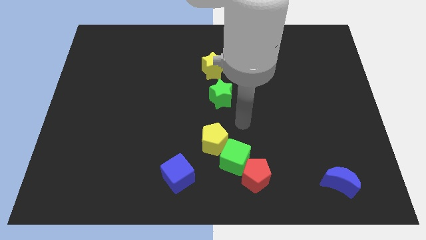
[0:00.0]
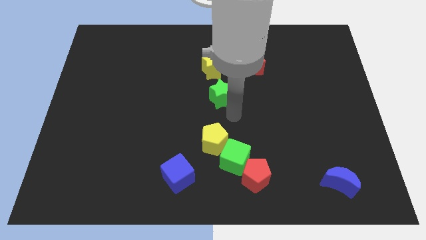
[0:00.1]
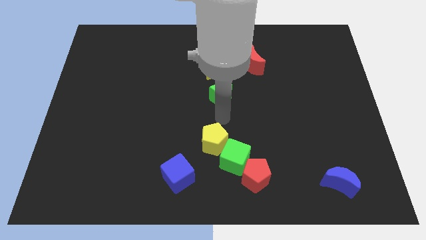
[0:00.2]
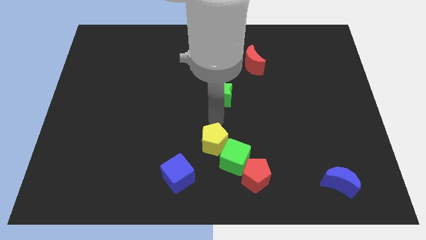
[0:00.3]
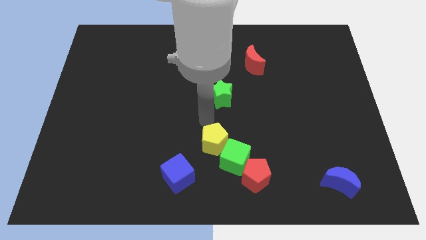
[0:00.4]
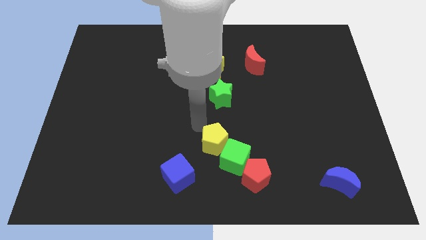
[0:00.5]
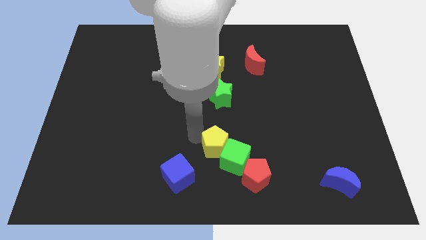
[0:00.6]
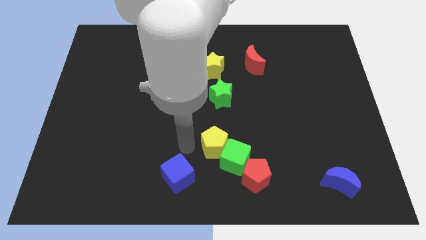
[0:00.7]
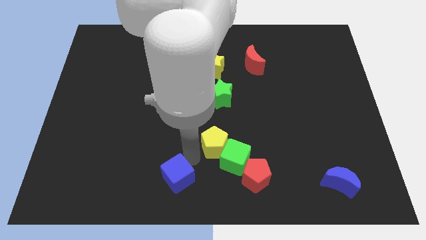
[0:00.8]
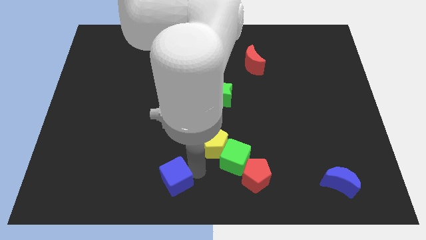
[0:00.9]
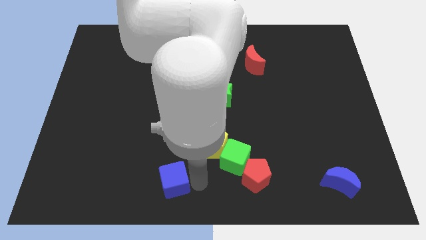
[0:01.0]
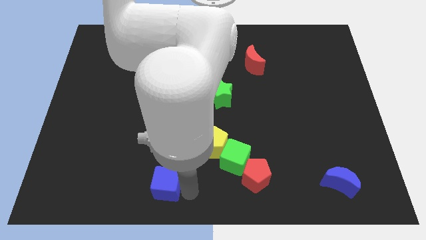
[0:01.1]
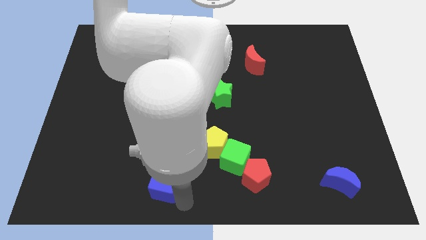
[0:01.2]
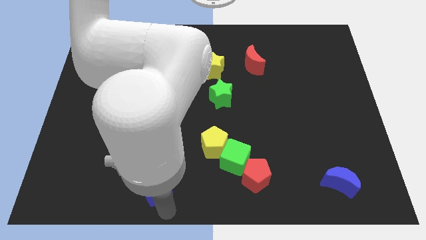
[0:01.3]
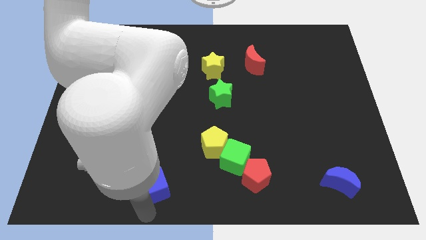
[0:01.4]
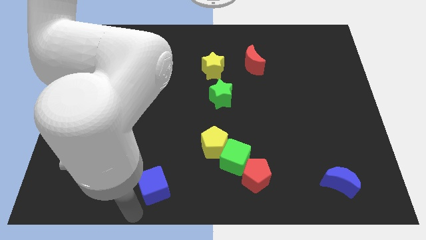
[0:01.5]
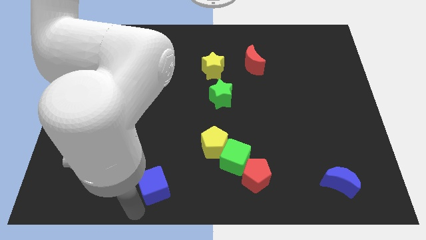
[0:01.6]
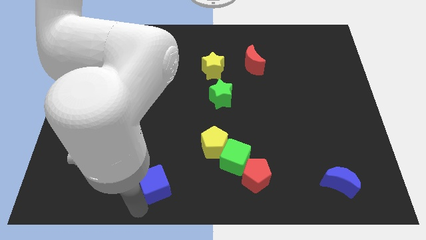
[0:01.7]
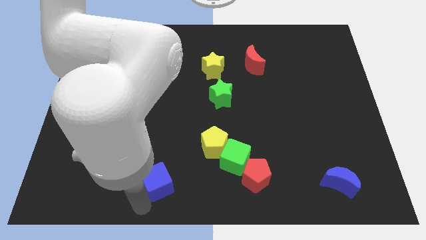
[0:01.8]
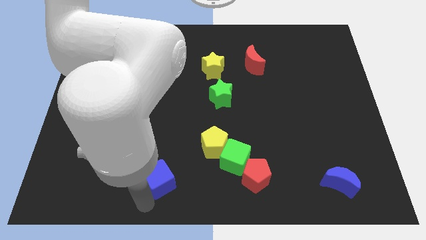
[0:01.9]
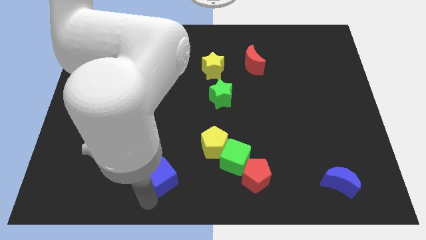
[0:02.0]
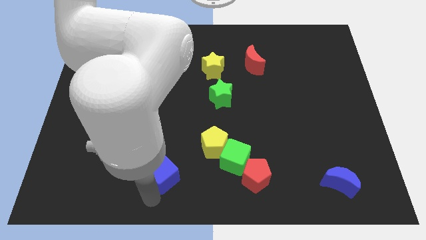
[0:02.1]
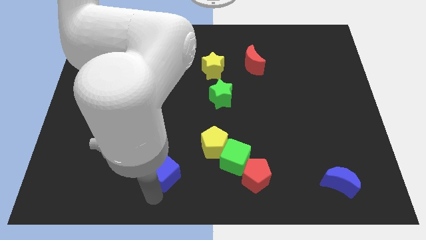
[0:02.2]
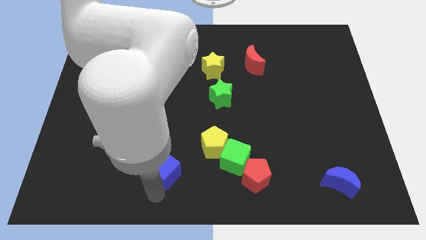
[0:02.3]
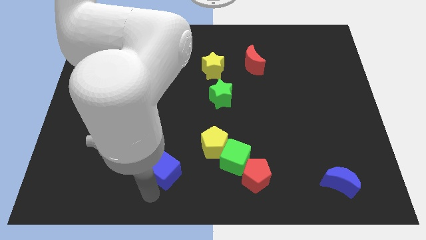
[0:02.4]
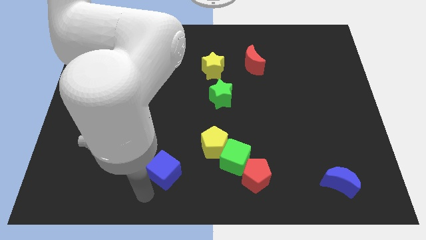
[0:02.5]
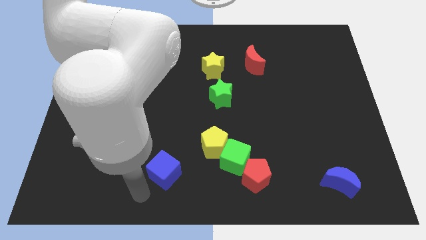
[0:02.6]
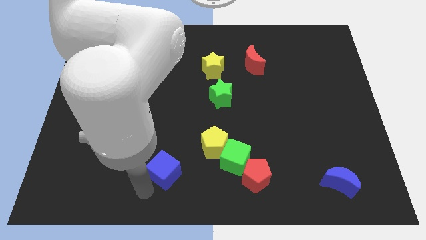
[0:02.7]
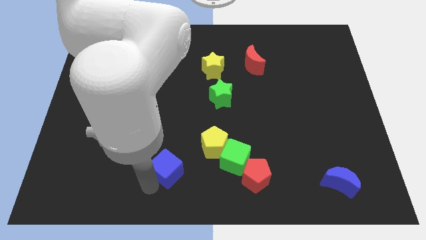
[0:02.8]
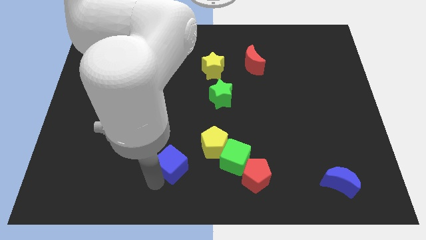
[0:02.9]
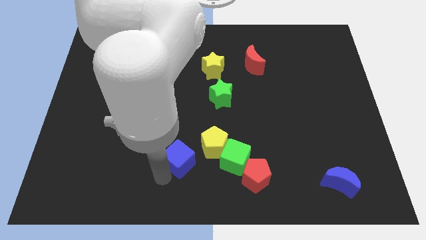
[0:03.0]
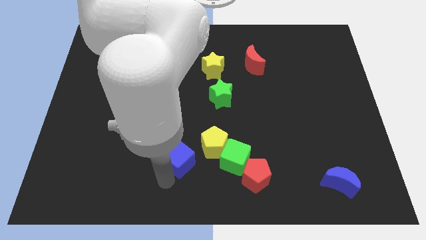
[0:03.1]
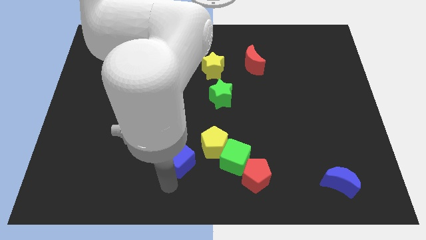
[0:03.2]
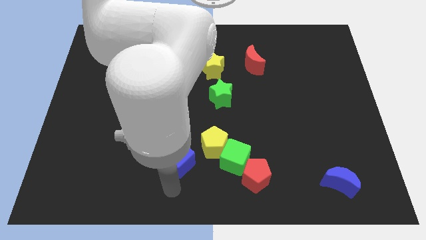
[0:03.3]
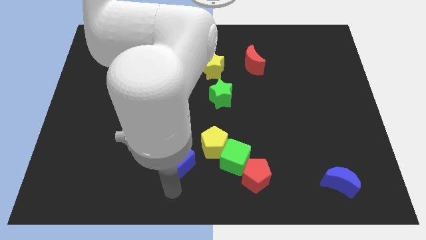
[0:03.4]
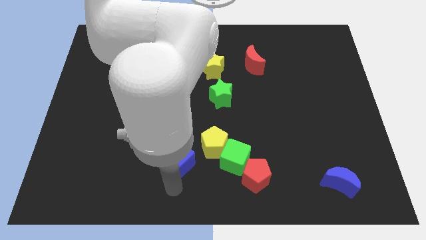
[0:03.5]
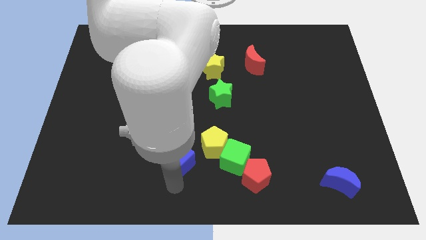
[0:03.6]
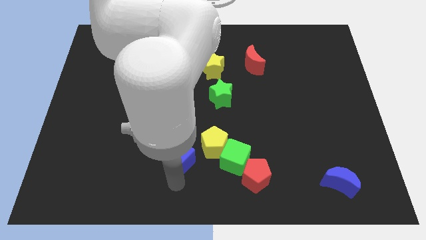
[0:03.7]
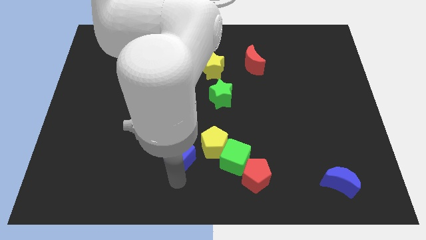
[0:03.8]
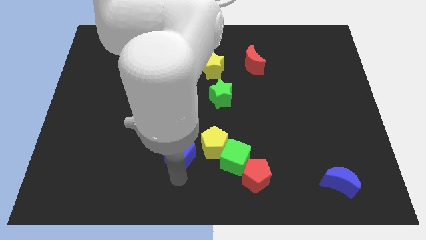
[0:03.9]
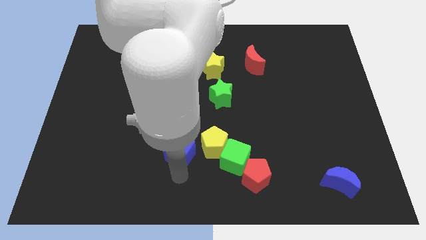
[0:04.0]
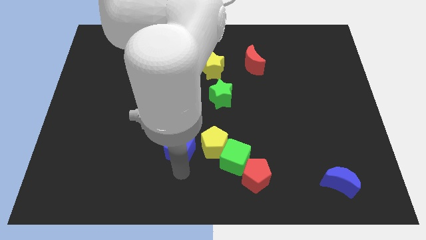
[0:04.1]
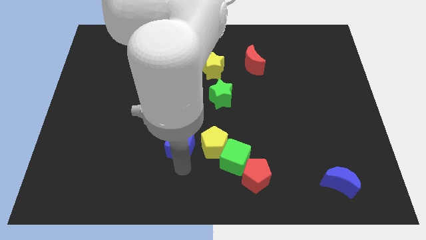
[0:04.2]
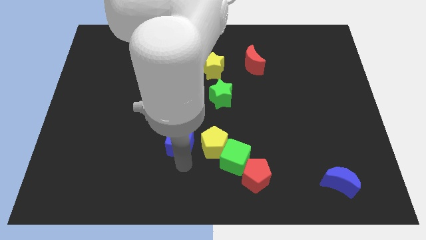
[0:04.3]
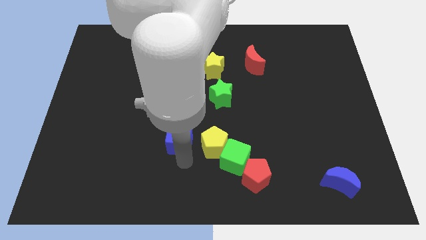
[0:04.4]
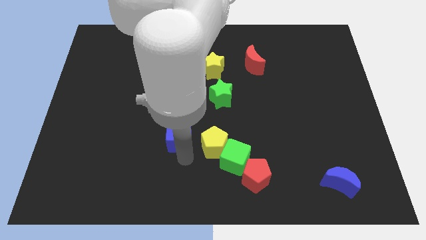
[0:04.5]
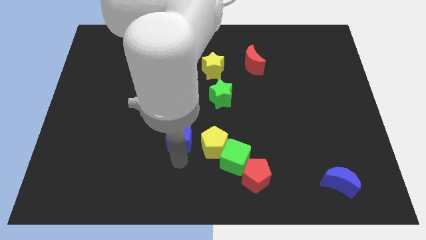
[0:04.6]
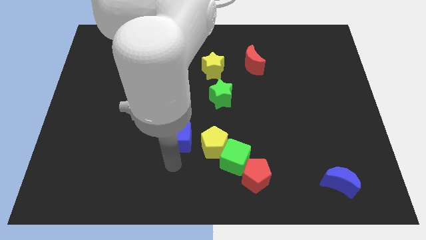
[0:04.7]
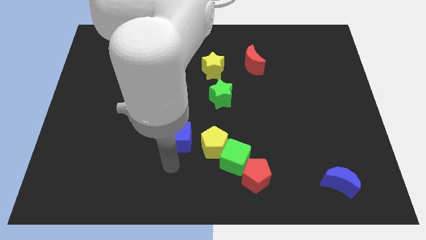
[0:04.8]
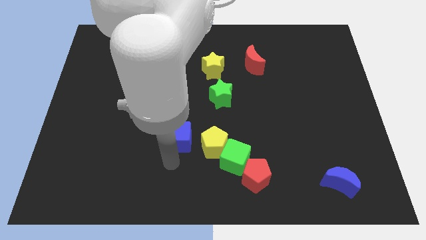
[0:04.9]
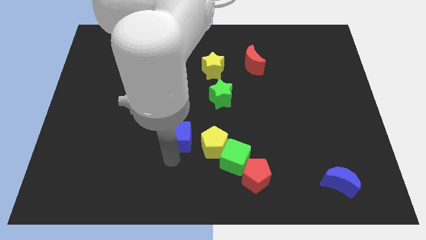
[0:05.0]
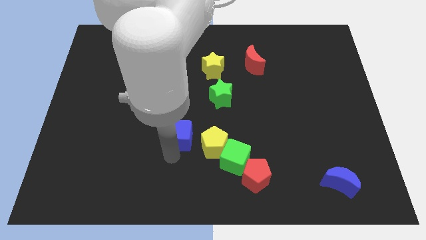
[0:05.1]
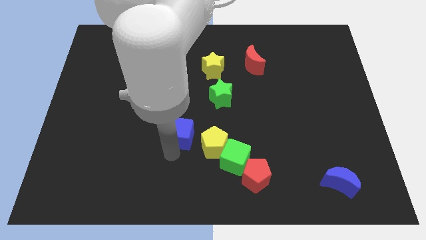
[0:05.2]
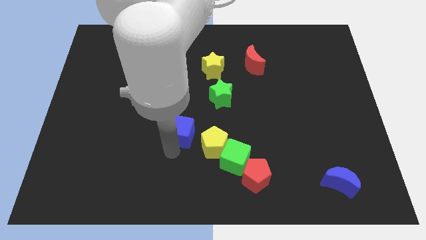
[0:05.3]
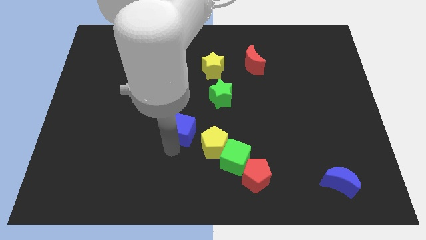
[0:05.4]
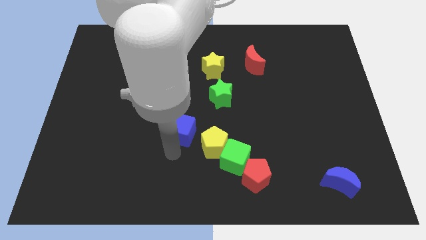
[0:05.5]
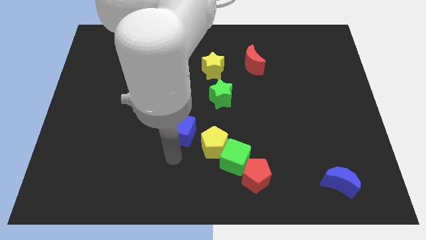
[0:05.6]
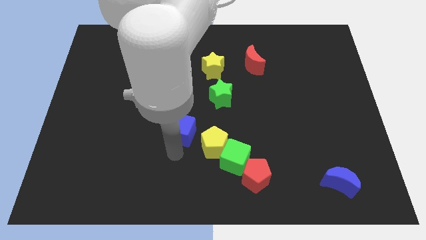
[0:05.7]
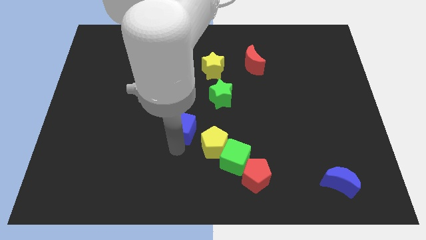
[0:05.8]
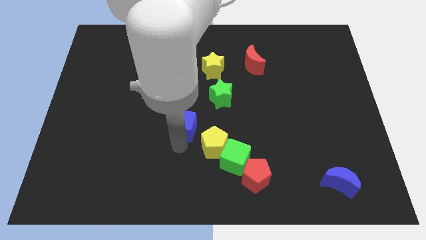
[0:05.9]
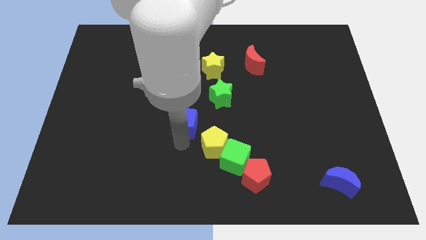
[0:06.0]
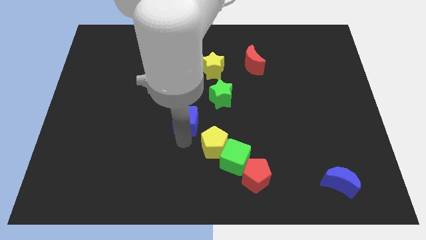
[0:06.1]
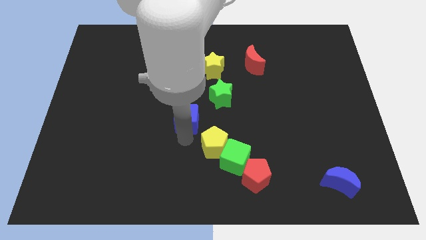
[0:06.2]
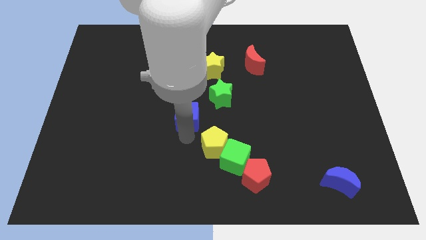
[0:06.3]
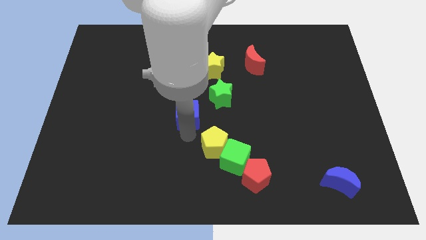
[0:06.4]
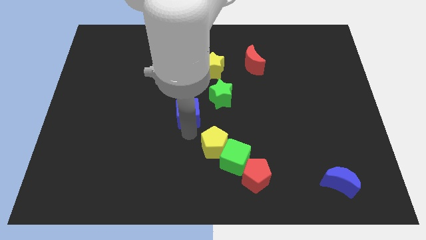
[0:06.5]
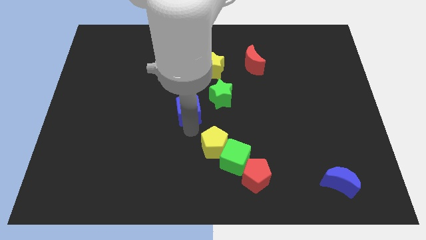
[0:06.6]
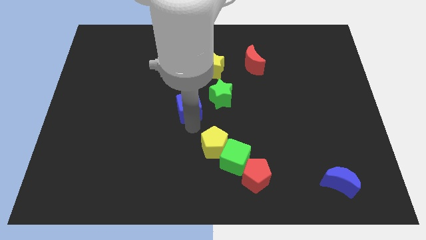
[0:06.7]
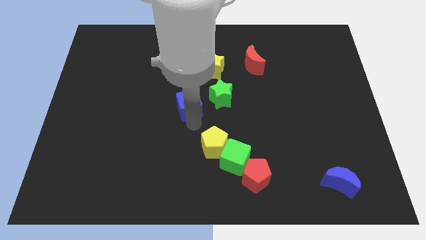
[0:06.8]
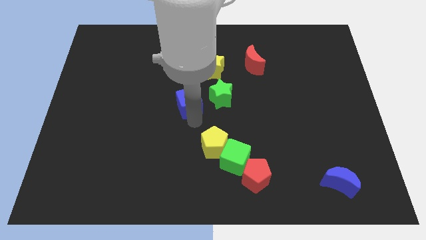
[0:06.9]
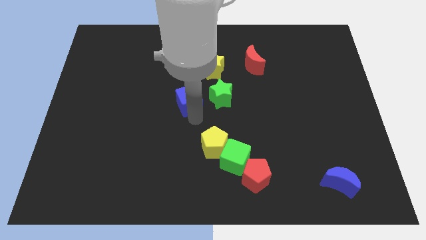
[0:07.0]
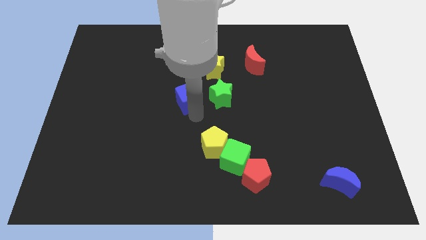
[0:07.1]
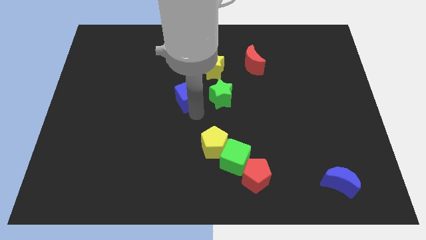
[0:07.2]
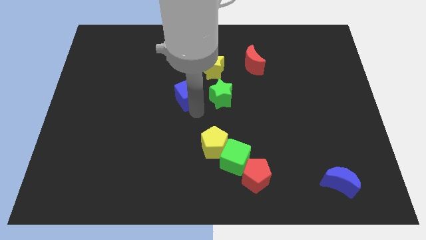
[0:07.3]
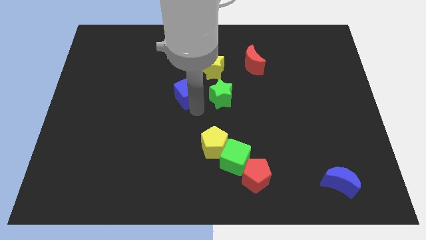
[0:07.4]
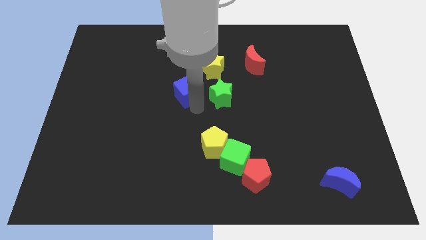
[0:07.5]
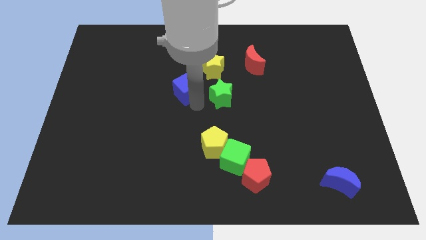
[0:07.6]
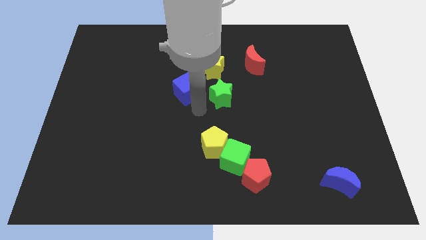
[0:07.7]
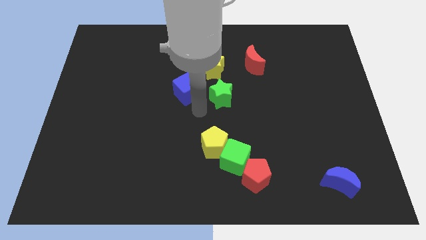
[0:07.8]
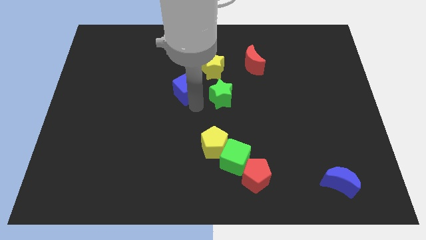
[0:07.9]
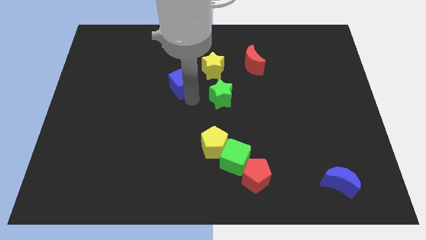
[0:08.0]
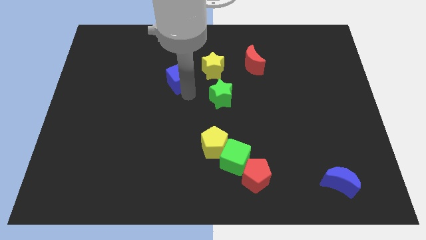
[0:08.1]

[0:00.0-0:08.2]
move the blue cube to the left side of the yellow star
